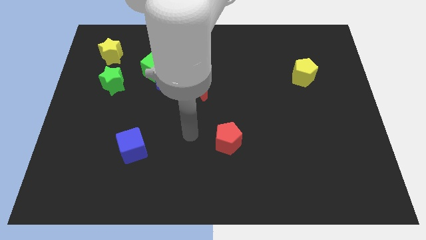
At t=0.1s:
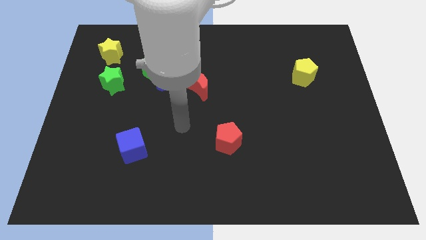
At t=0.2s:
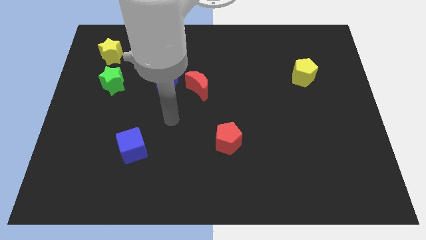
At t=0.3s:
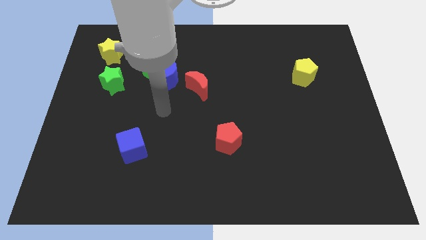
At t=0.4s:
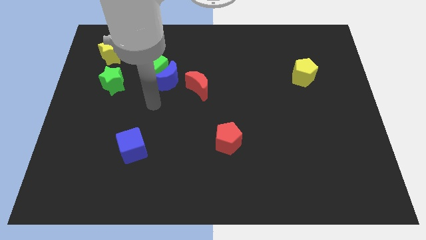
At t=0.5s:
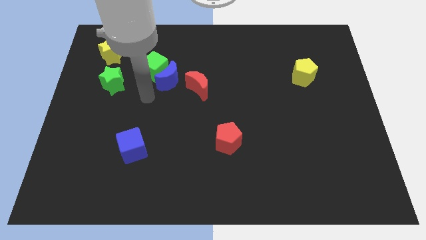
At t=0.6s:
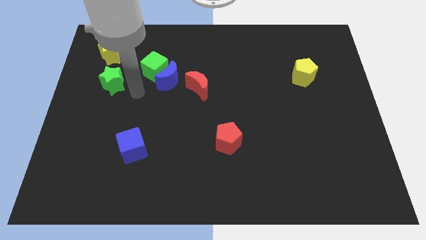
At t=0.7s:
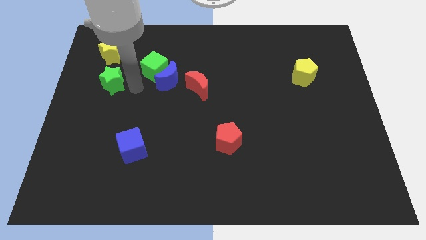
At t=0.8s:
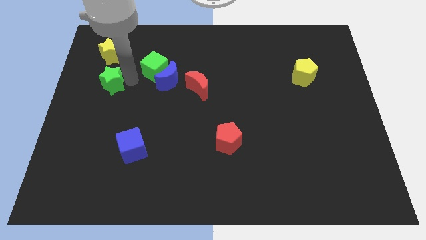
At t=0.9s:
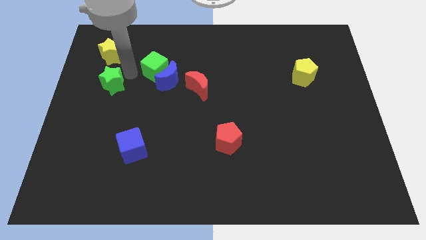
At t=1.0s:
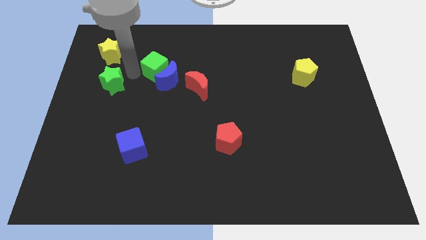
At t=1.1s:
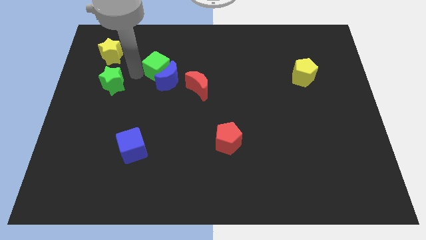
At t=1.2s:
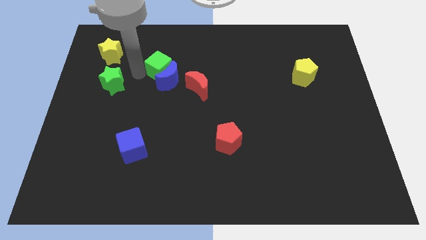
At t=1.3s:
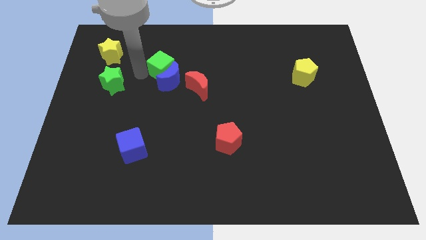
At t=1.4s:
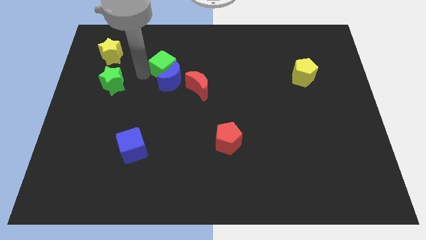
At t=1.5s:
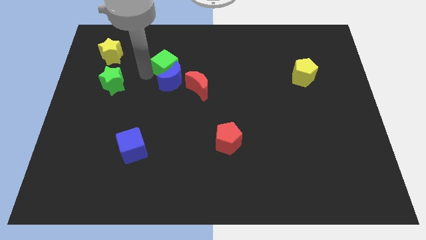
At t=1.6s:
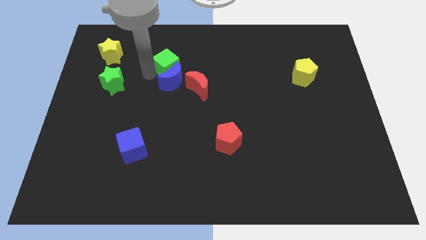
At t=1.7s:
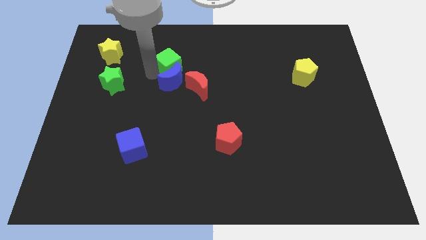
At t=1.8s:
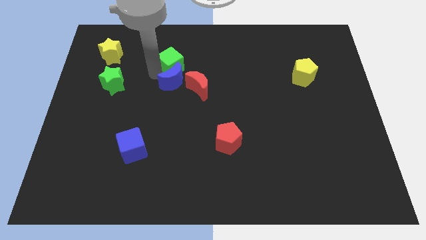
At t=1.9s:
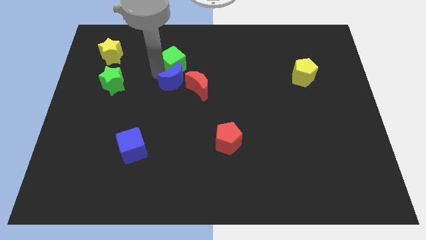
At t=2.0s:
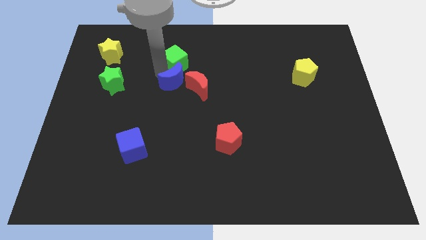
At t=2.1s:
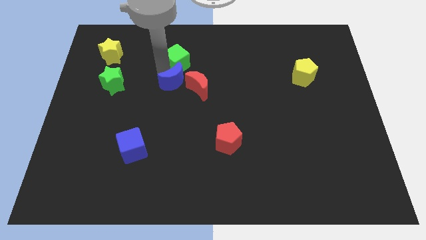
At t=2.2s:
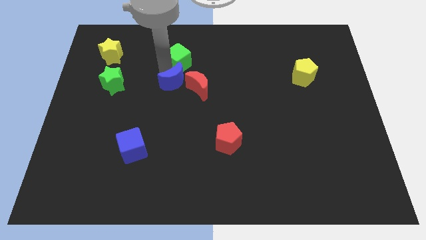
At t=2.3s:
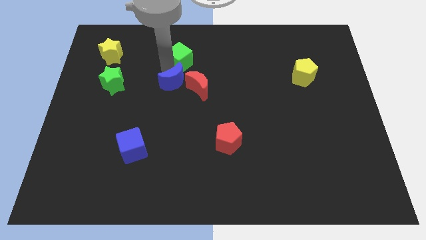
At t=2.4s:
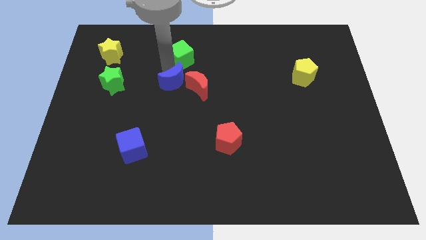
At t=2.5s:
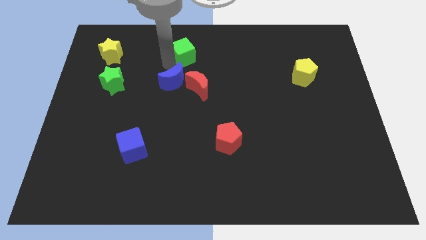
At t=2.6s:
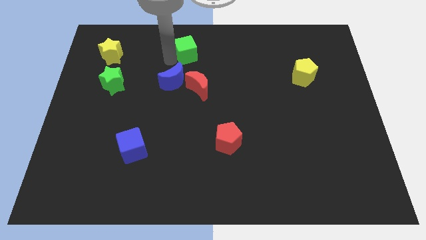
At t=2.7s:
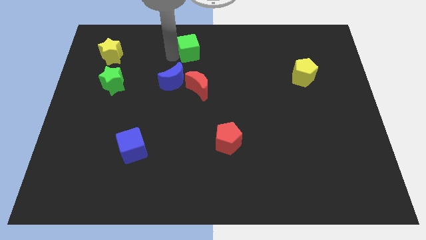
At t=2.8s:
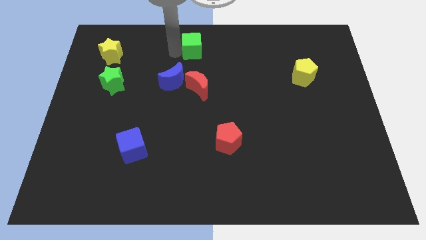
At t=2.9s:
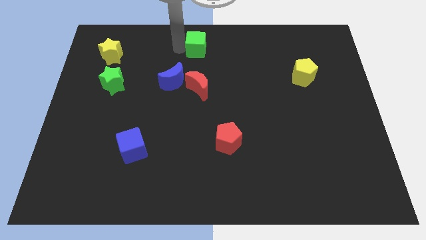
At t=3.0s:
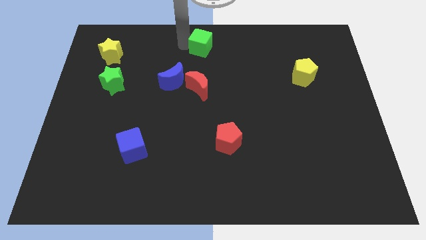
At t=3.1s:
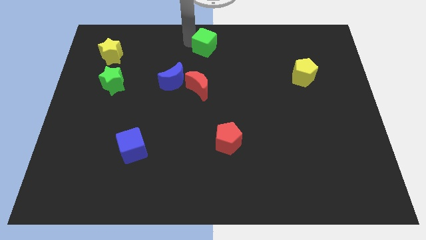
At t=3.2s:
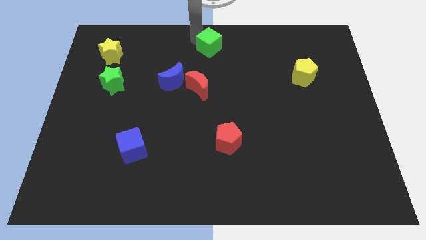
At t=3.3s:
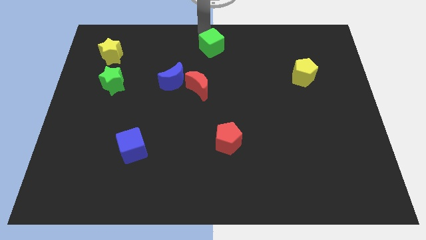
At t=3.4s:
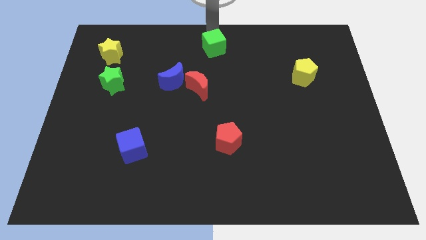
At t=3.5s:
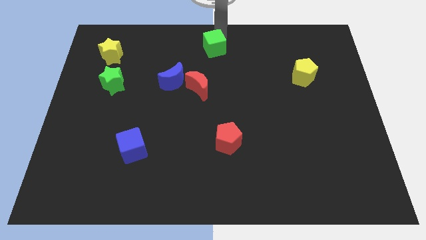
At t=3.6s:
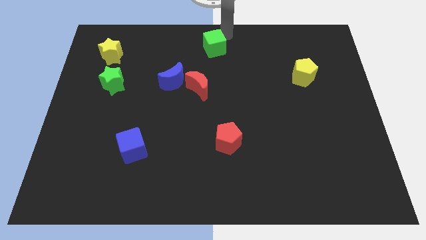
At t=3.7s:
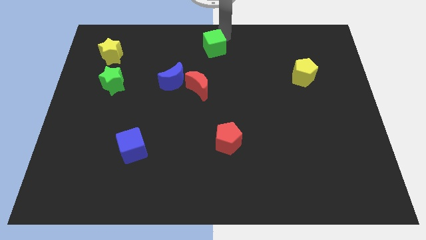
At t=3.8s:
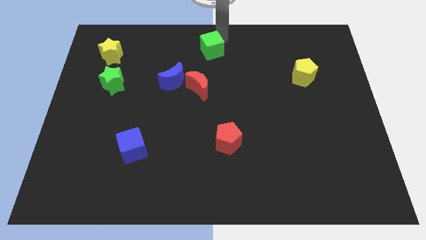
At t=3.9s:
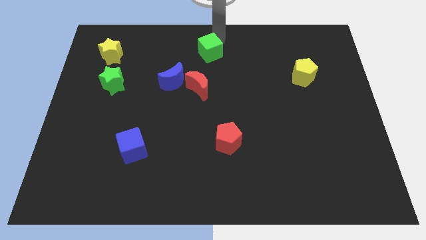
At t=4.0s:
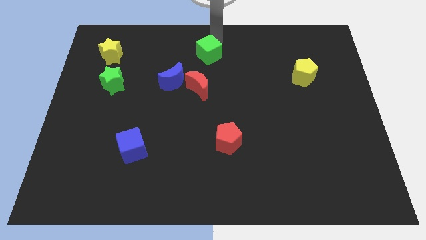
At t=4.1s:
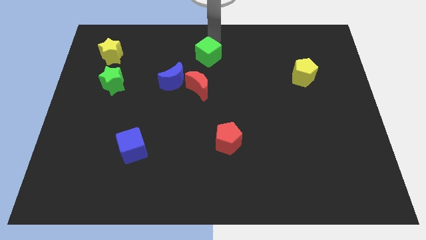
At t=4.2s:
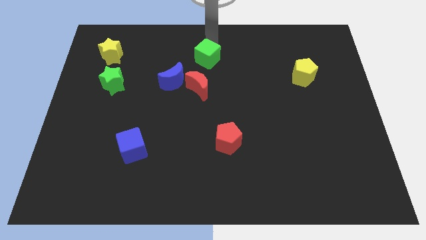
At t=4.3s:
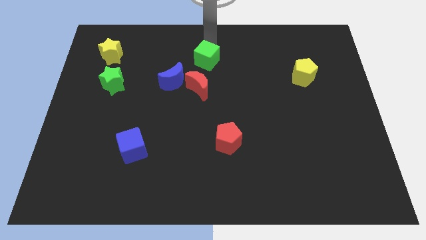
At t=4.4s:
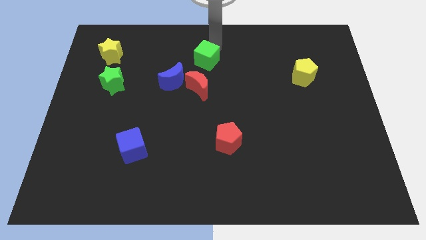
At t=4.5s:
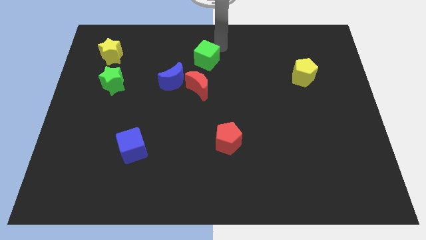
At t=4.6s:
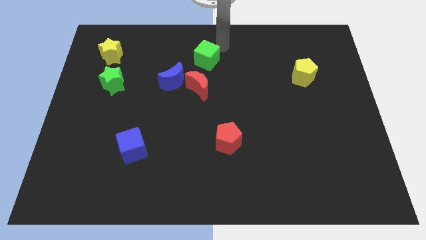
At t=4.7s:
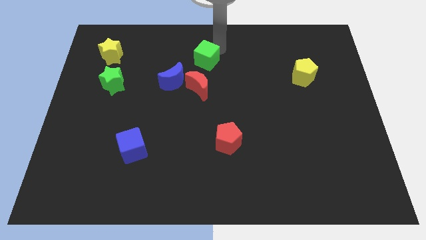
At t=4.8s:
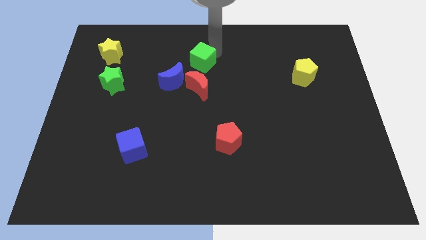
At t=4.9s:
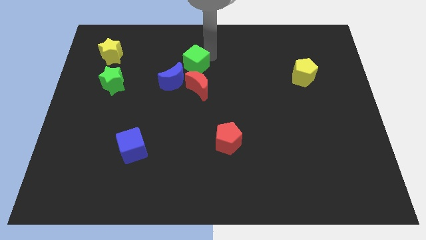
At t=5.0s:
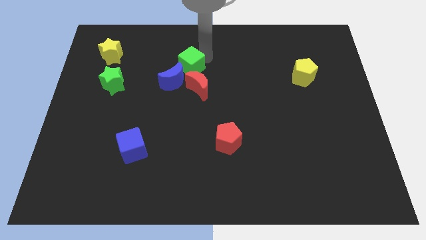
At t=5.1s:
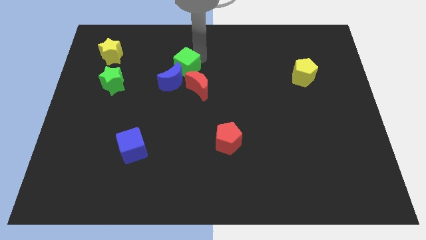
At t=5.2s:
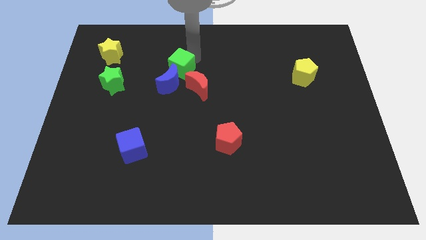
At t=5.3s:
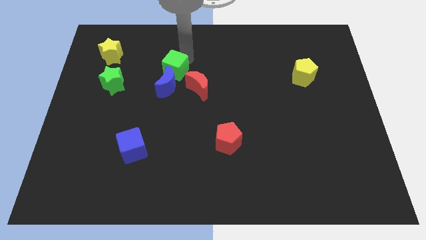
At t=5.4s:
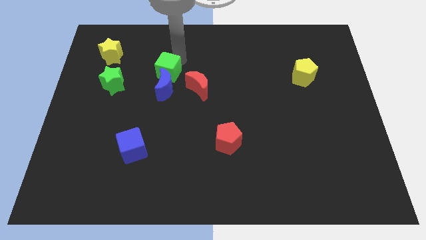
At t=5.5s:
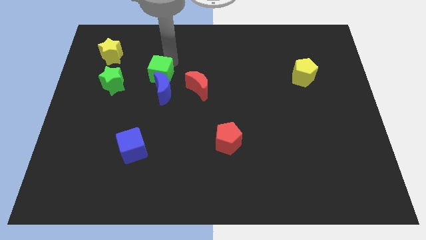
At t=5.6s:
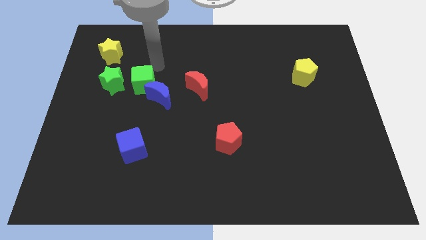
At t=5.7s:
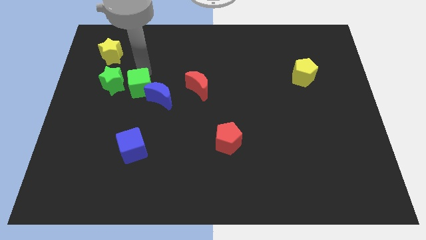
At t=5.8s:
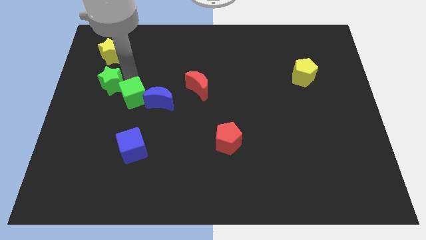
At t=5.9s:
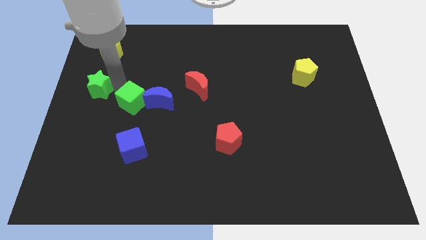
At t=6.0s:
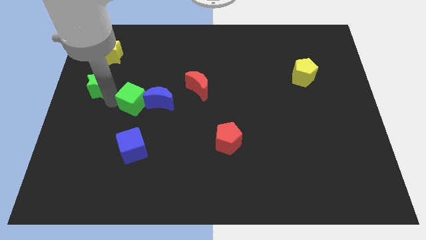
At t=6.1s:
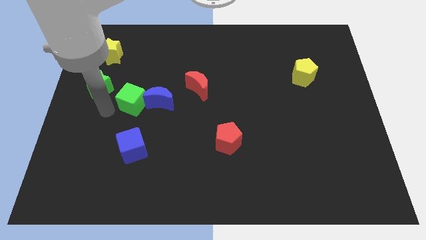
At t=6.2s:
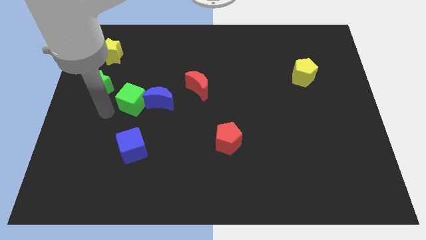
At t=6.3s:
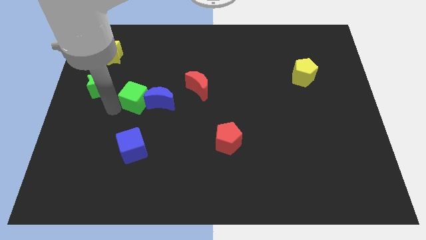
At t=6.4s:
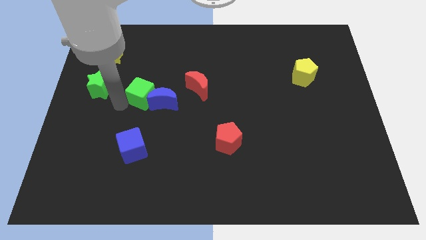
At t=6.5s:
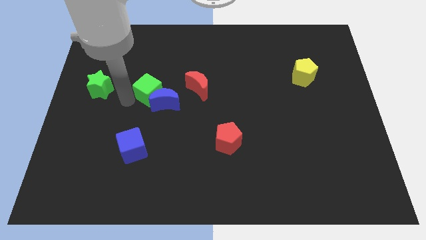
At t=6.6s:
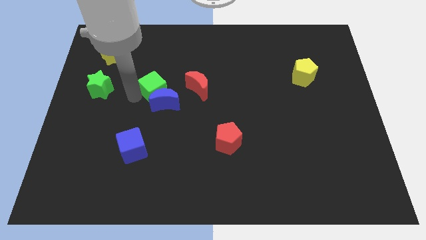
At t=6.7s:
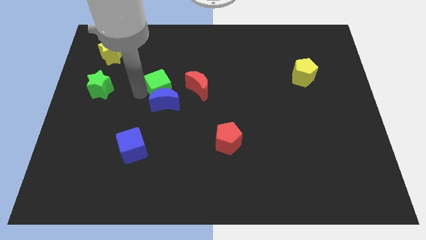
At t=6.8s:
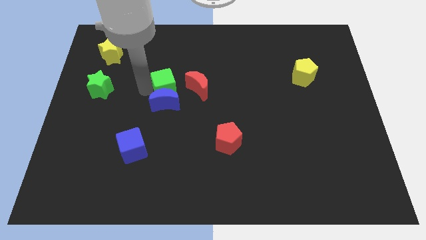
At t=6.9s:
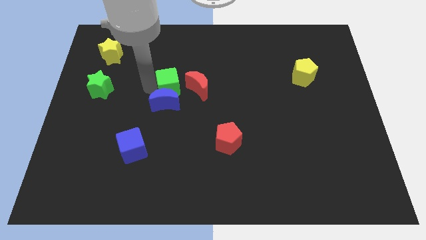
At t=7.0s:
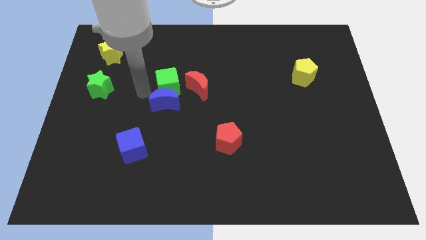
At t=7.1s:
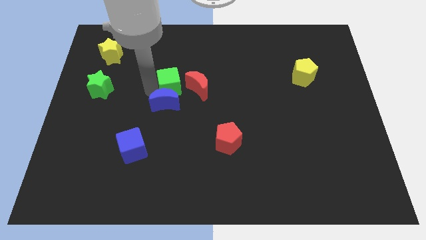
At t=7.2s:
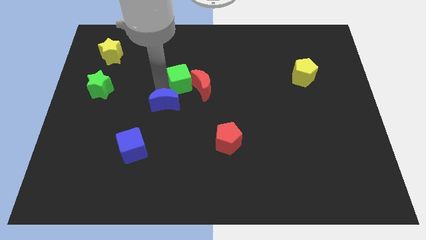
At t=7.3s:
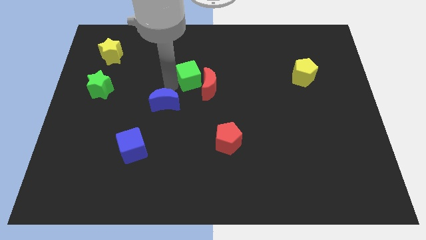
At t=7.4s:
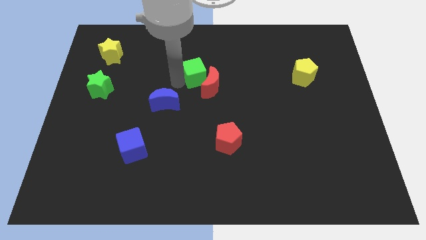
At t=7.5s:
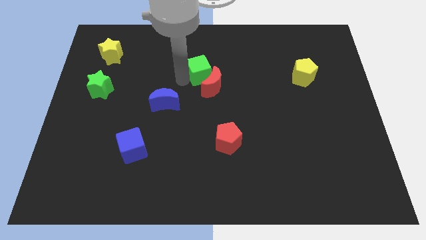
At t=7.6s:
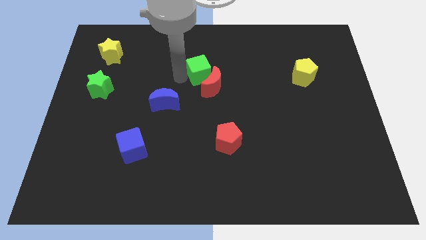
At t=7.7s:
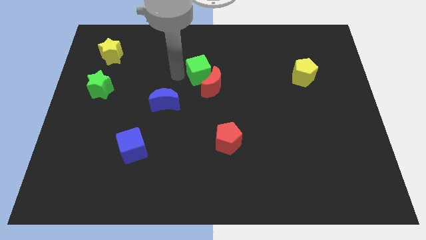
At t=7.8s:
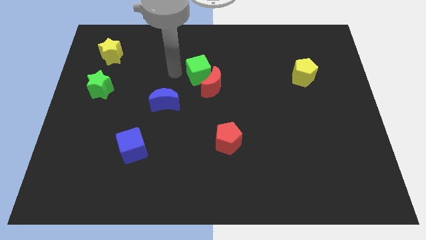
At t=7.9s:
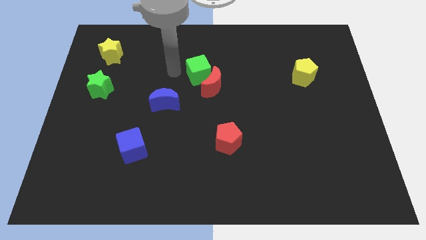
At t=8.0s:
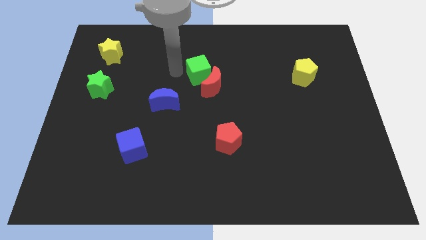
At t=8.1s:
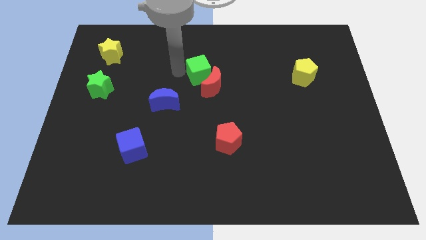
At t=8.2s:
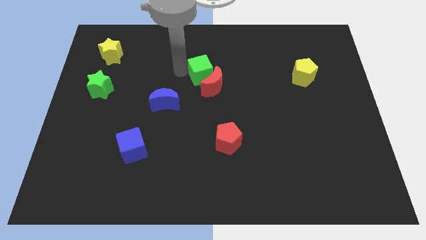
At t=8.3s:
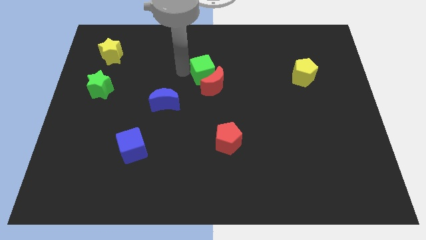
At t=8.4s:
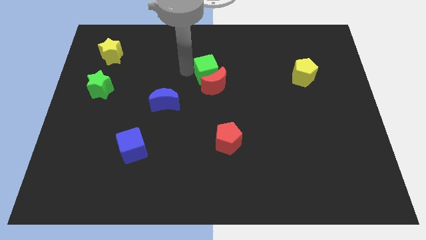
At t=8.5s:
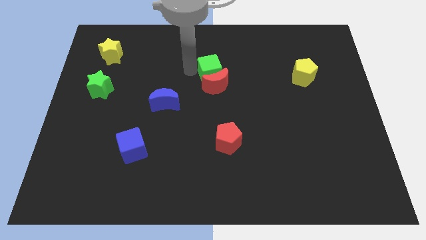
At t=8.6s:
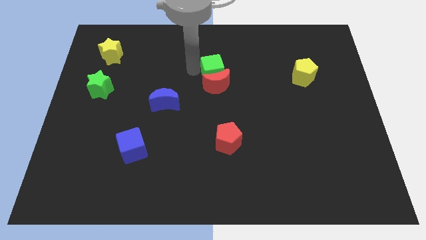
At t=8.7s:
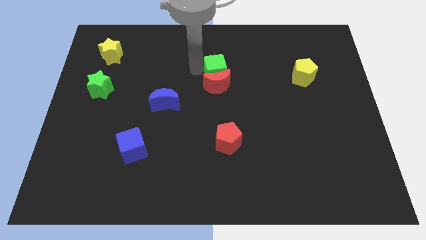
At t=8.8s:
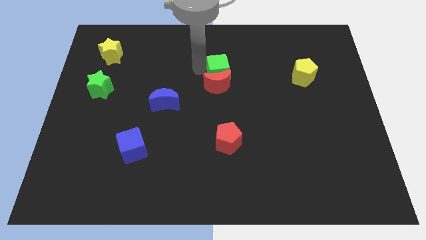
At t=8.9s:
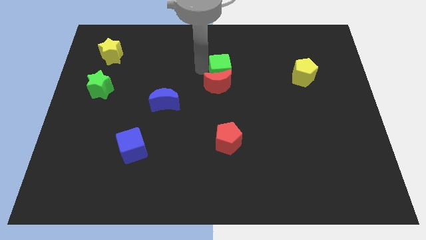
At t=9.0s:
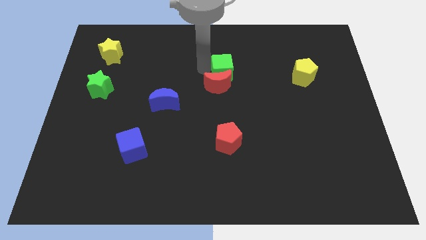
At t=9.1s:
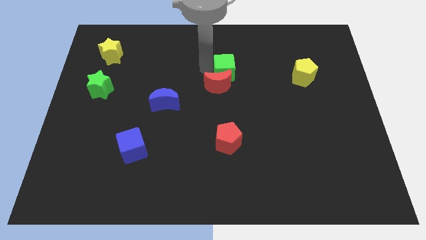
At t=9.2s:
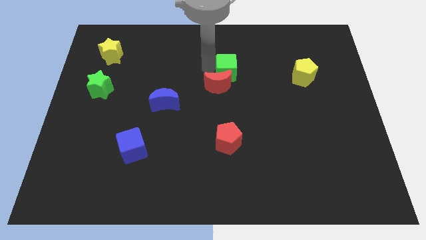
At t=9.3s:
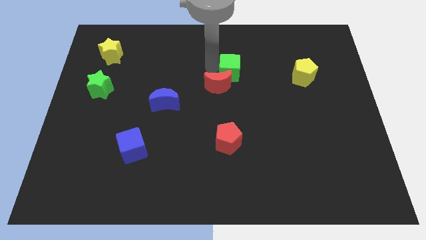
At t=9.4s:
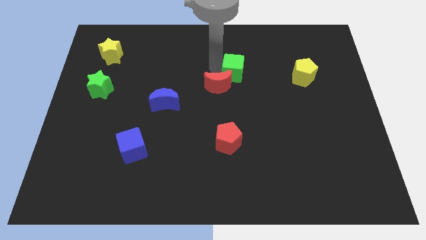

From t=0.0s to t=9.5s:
push the green cube to the right
